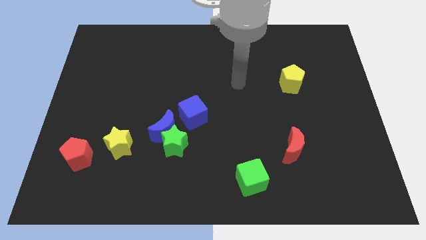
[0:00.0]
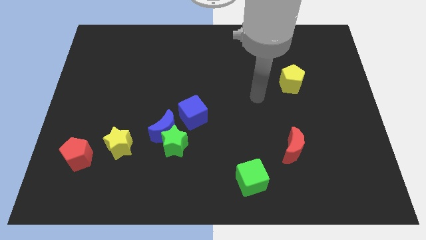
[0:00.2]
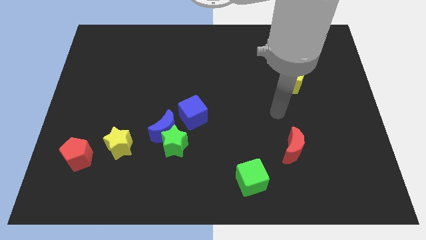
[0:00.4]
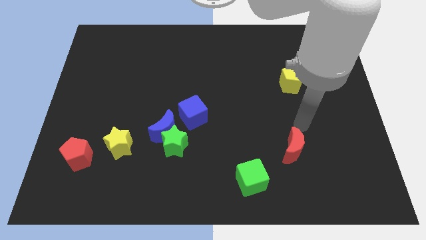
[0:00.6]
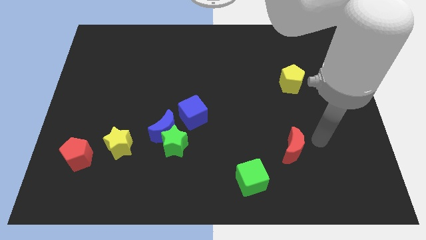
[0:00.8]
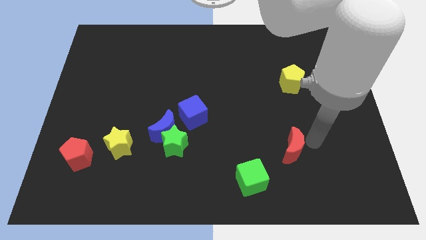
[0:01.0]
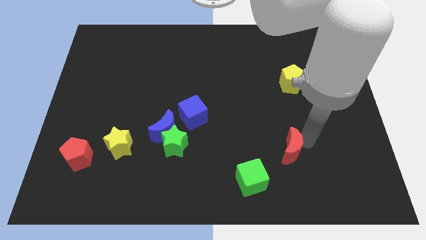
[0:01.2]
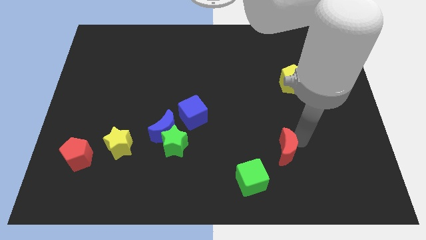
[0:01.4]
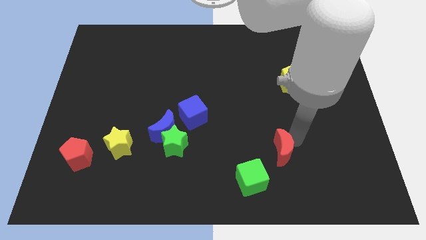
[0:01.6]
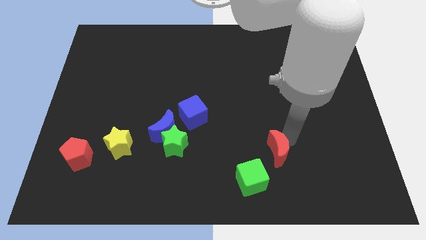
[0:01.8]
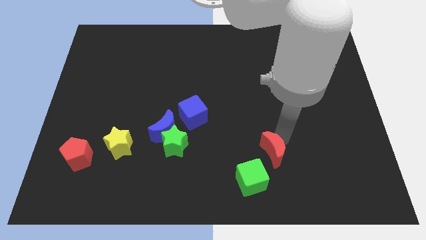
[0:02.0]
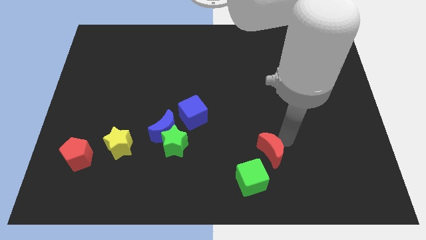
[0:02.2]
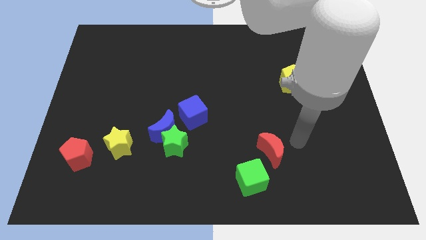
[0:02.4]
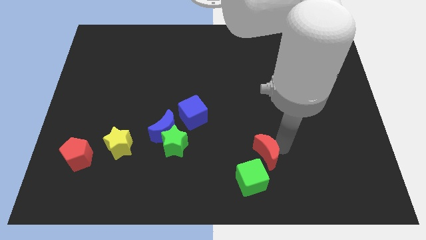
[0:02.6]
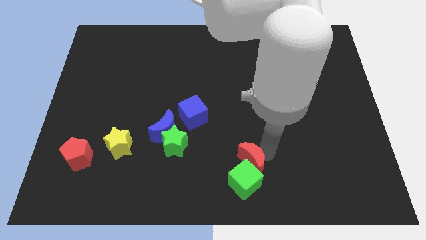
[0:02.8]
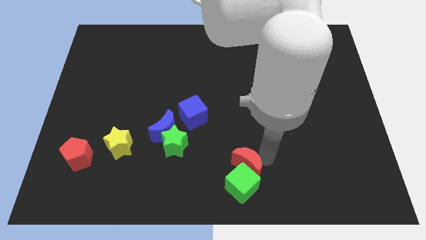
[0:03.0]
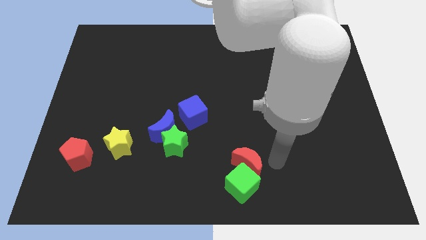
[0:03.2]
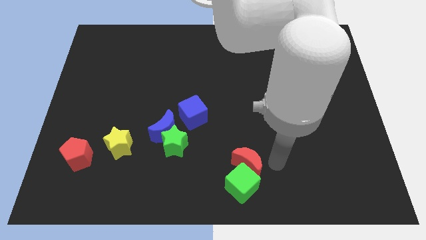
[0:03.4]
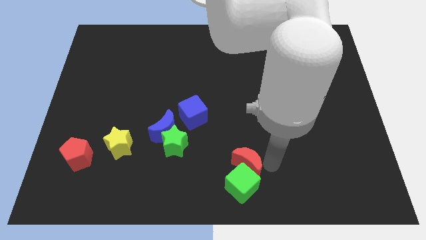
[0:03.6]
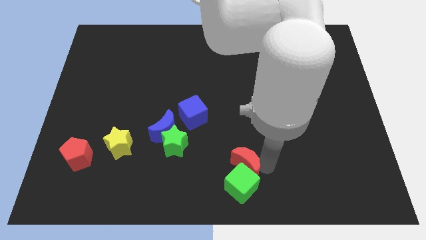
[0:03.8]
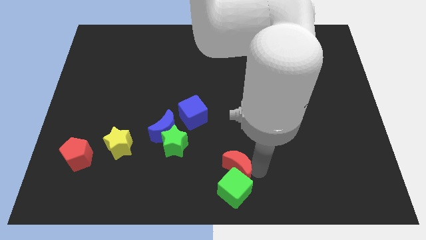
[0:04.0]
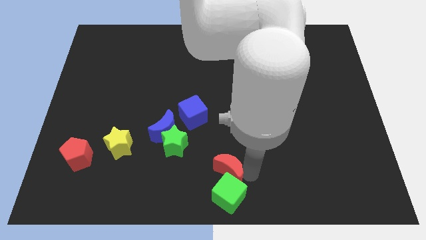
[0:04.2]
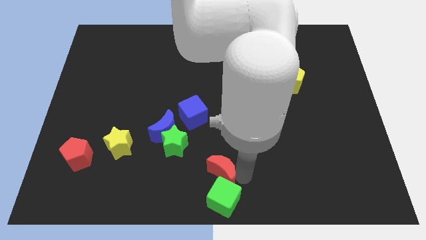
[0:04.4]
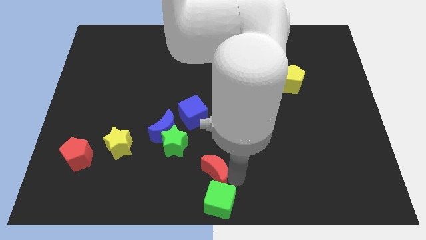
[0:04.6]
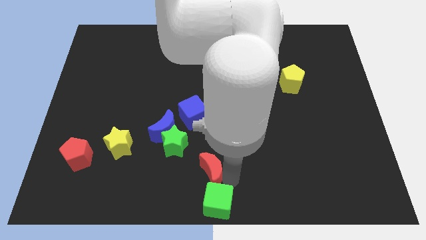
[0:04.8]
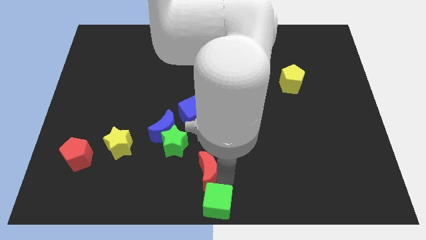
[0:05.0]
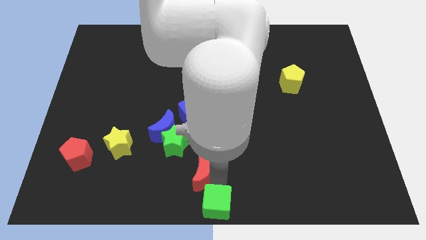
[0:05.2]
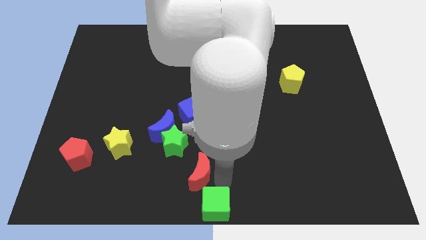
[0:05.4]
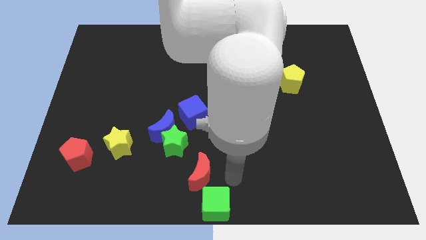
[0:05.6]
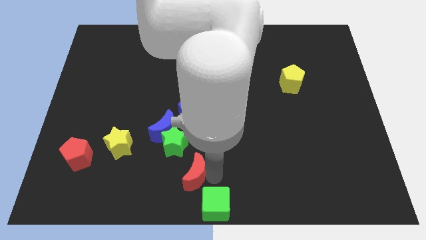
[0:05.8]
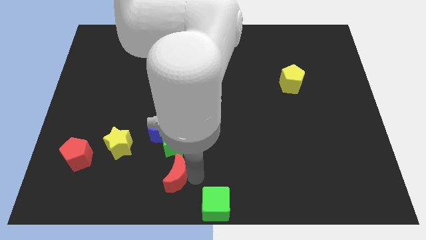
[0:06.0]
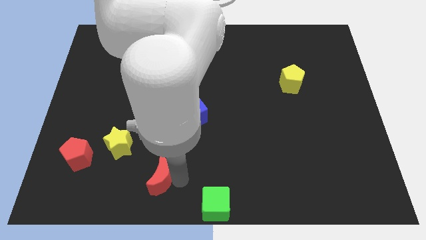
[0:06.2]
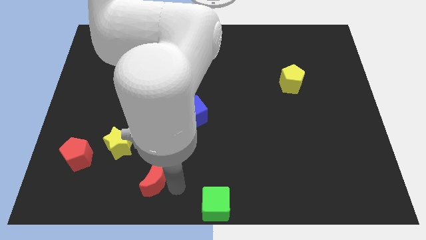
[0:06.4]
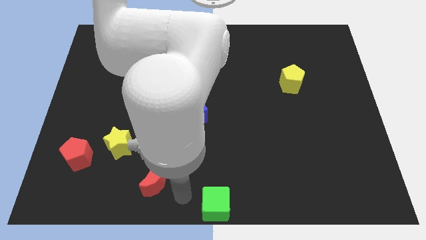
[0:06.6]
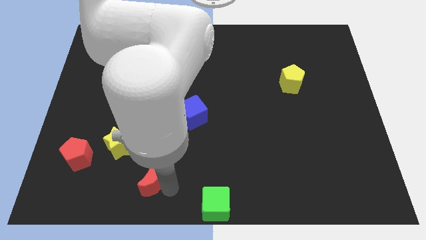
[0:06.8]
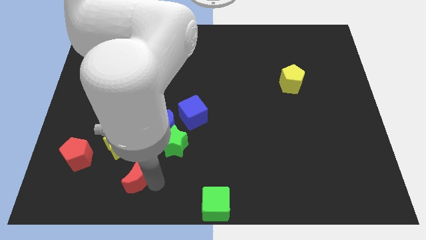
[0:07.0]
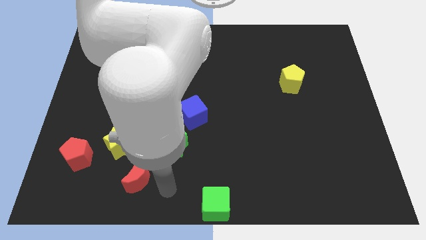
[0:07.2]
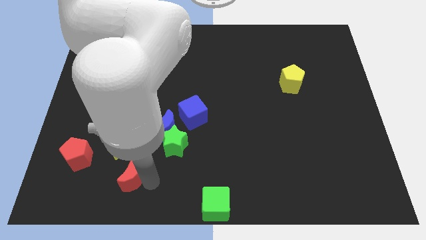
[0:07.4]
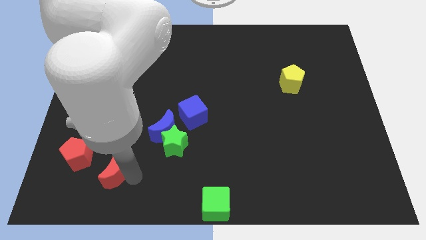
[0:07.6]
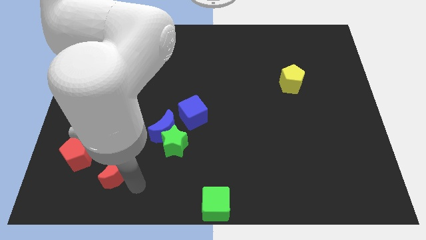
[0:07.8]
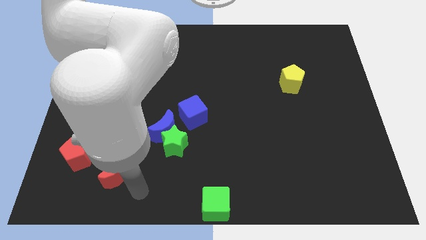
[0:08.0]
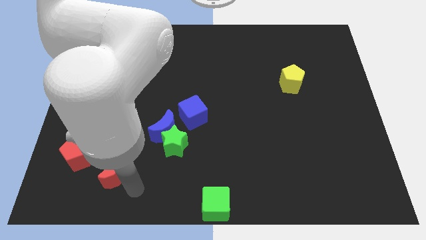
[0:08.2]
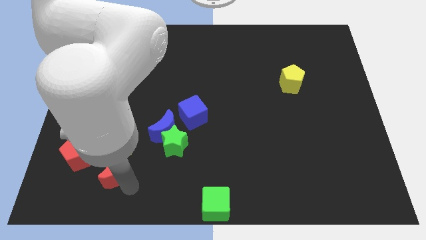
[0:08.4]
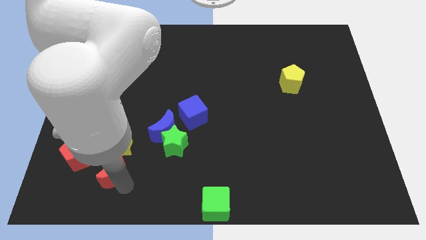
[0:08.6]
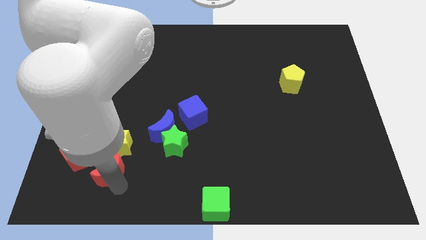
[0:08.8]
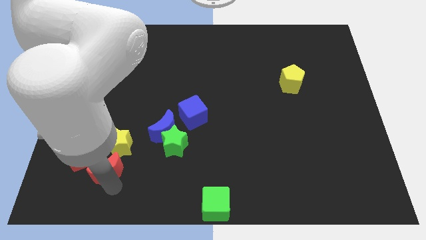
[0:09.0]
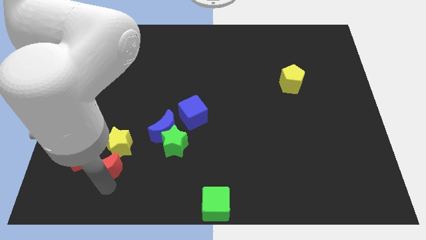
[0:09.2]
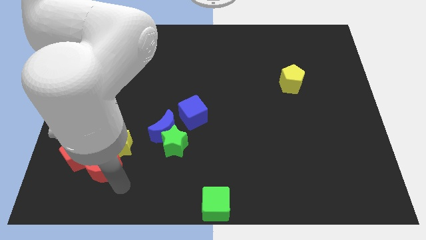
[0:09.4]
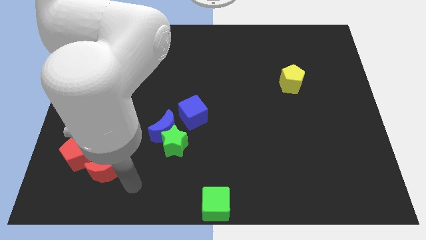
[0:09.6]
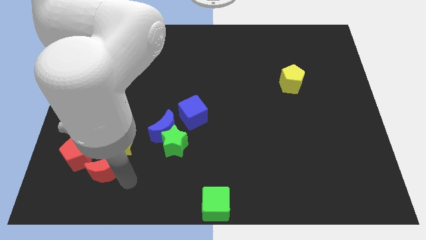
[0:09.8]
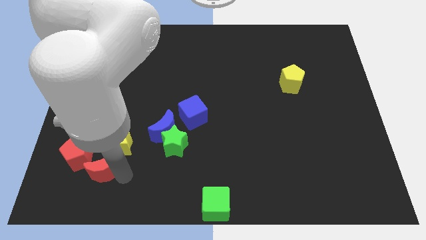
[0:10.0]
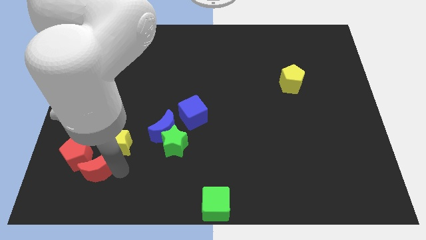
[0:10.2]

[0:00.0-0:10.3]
slide the red moon close to the red pentagon

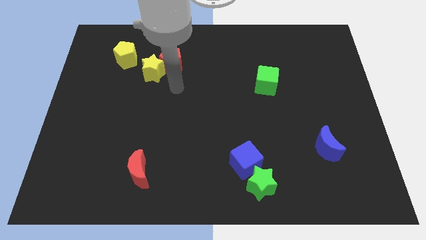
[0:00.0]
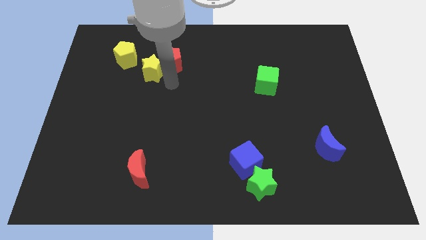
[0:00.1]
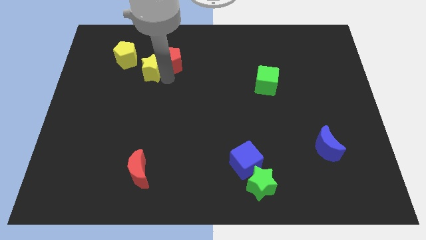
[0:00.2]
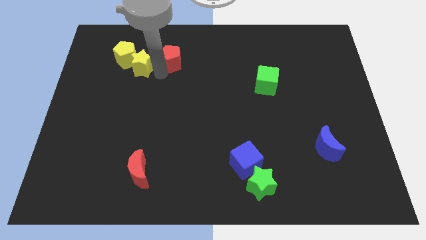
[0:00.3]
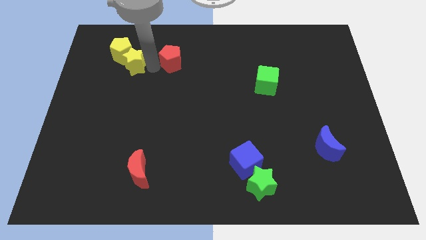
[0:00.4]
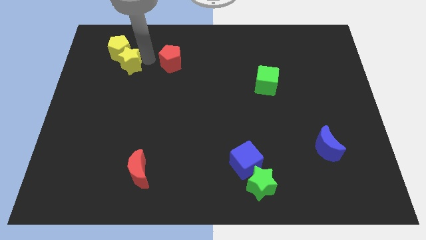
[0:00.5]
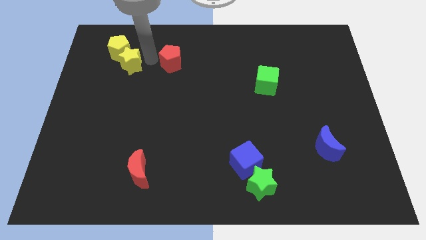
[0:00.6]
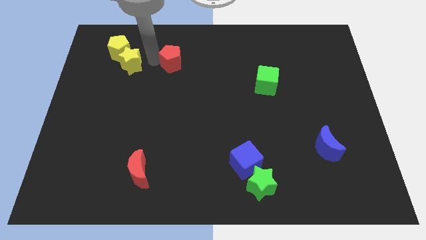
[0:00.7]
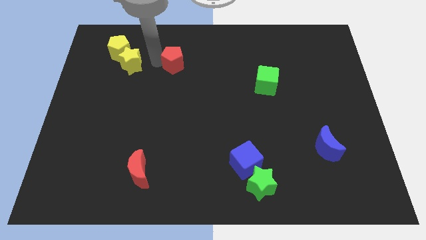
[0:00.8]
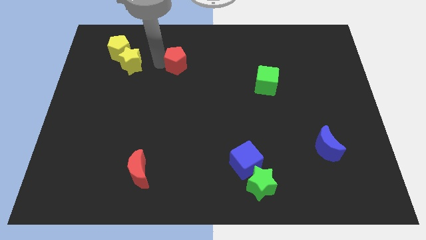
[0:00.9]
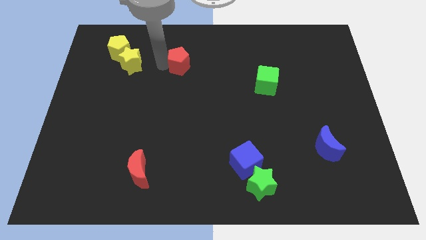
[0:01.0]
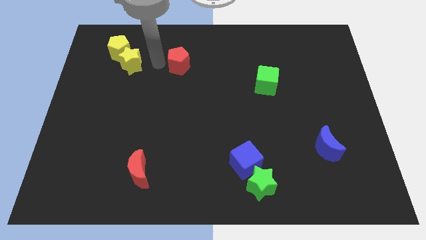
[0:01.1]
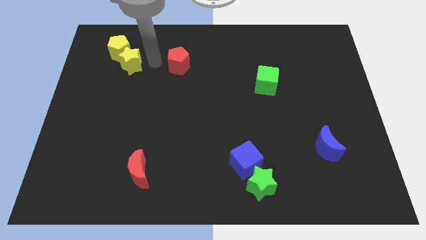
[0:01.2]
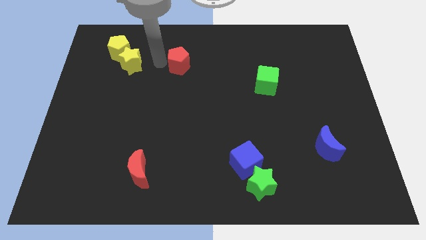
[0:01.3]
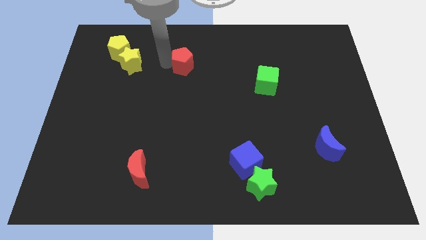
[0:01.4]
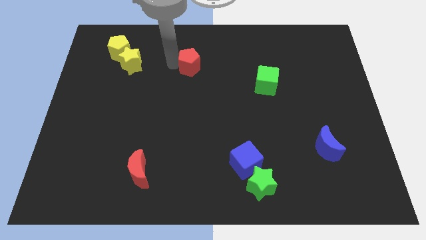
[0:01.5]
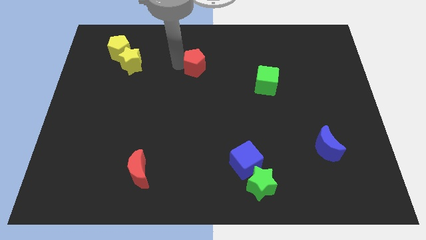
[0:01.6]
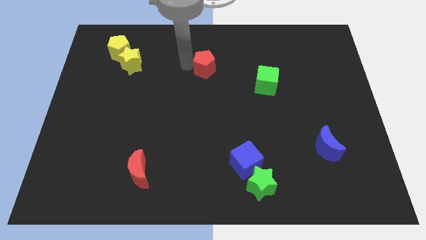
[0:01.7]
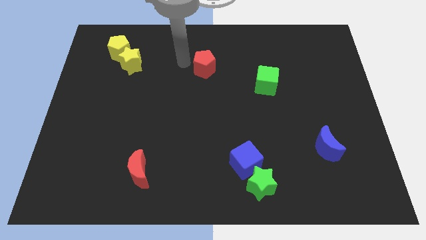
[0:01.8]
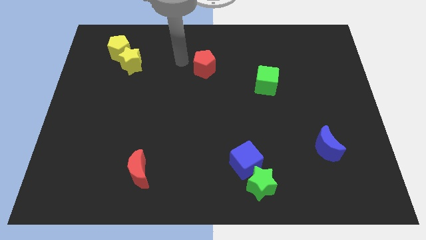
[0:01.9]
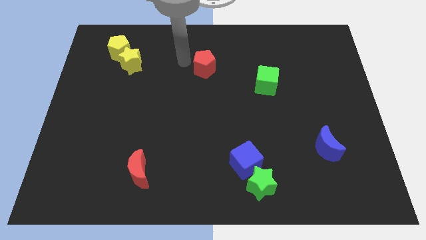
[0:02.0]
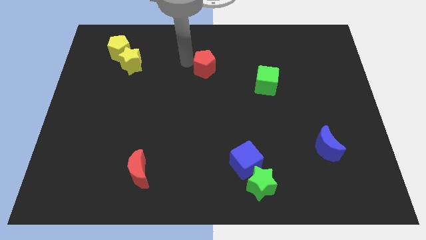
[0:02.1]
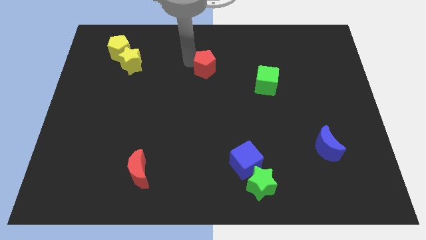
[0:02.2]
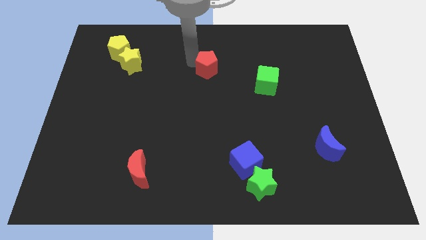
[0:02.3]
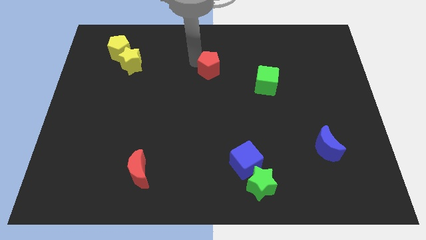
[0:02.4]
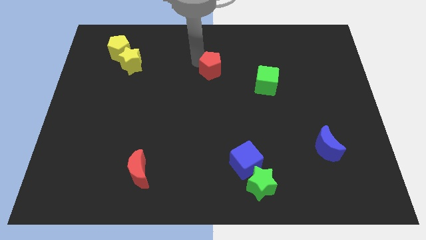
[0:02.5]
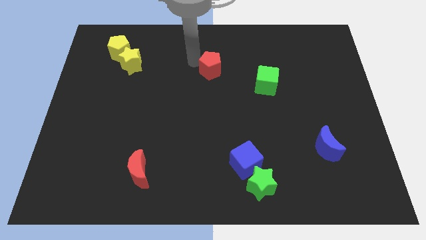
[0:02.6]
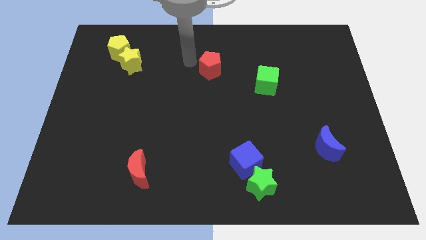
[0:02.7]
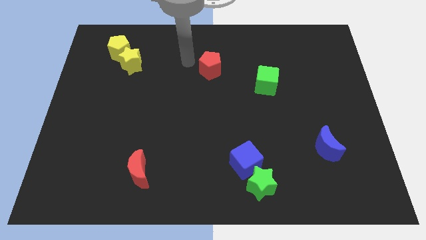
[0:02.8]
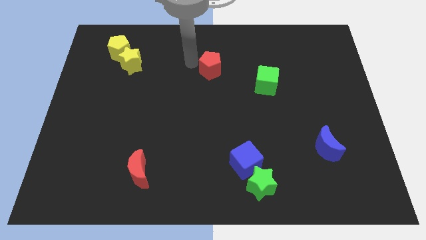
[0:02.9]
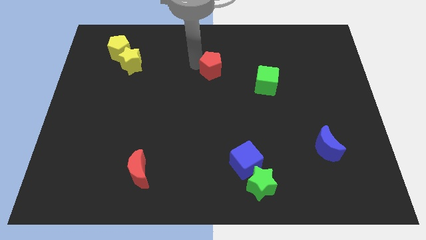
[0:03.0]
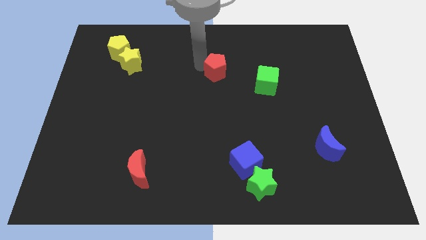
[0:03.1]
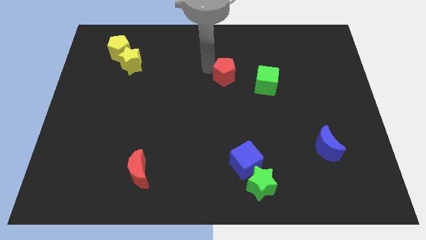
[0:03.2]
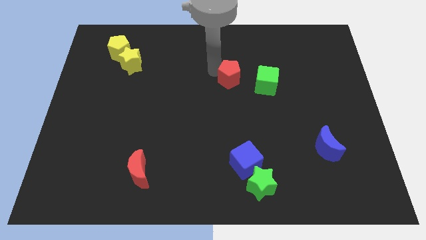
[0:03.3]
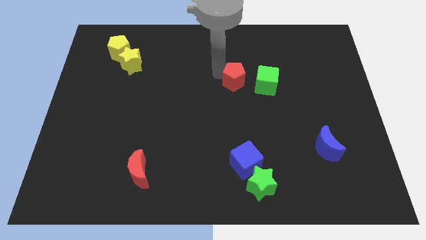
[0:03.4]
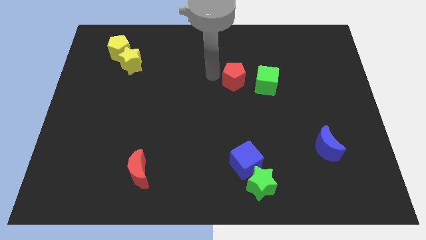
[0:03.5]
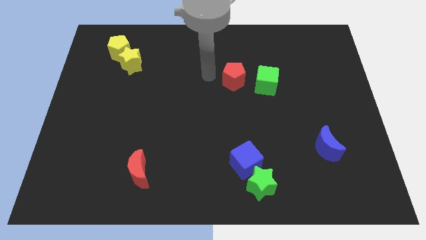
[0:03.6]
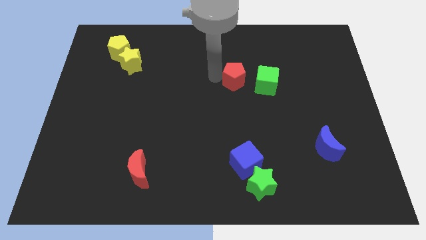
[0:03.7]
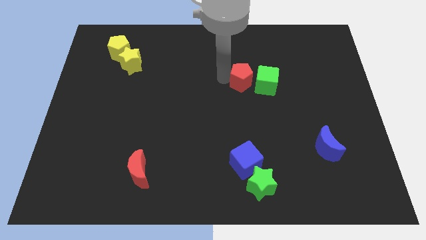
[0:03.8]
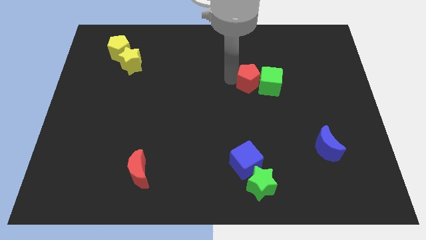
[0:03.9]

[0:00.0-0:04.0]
move the red pentagon close to the green cube
